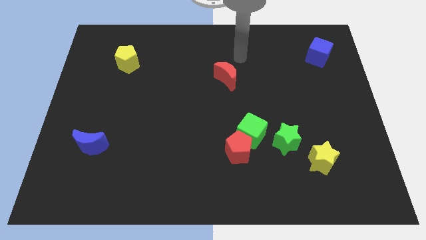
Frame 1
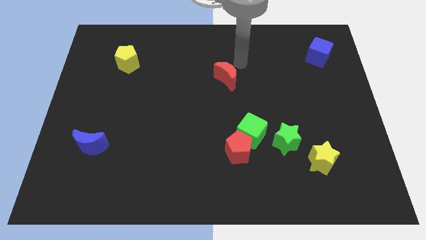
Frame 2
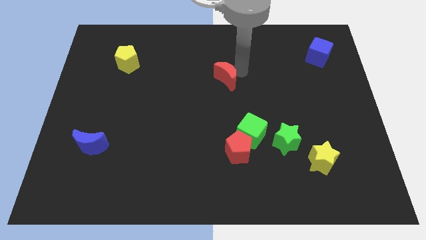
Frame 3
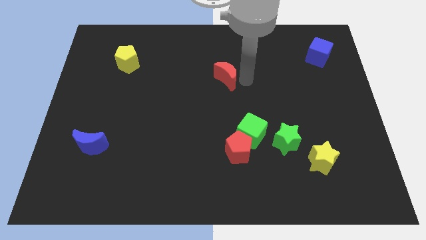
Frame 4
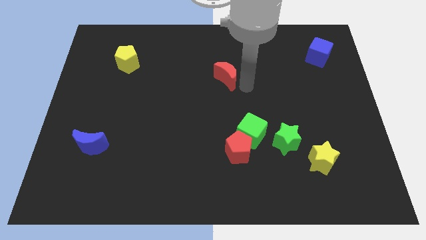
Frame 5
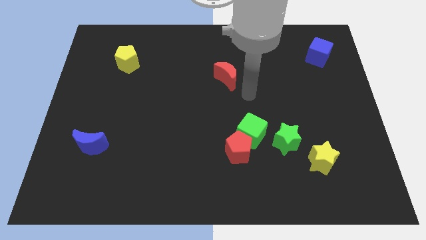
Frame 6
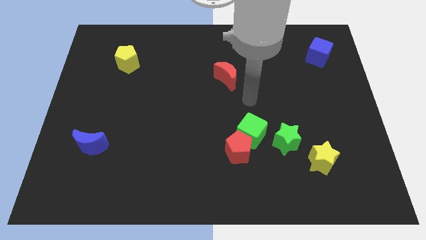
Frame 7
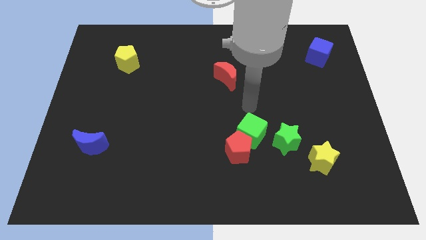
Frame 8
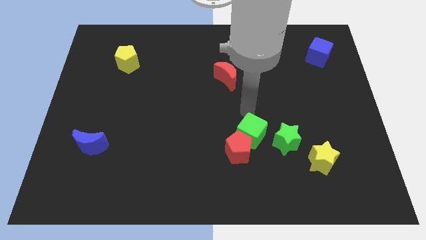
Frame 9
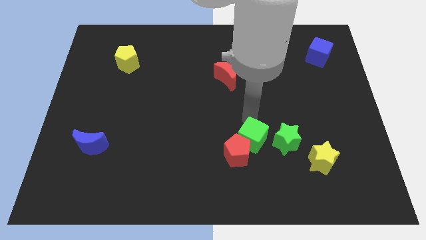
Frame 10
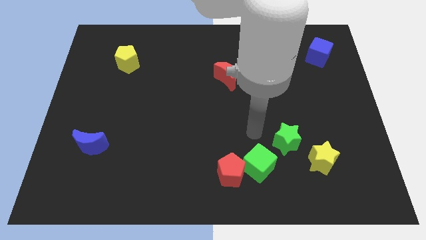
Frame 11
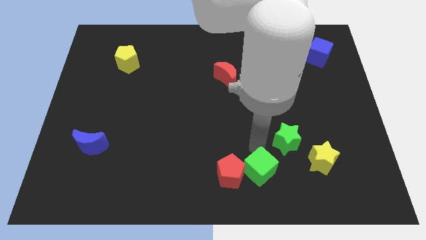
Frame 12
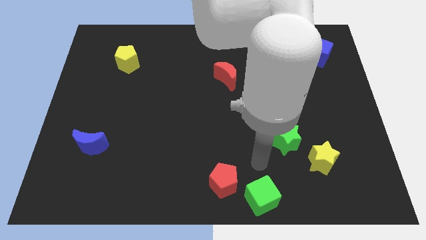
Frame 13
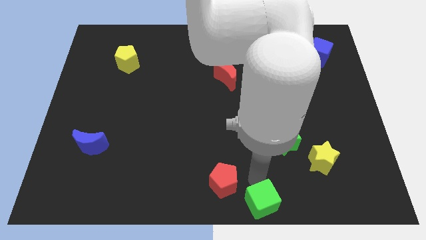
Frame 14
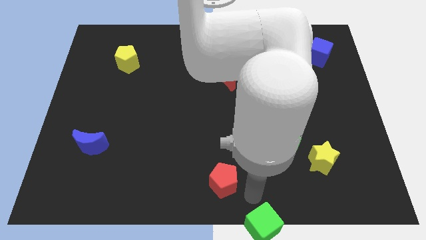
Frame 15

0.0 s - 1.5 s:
separate the red pentagon from the green cube

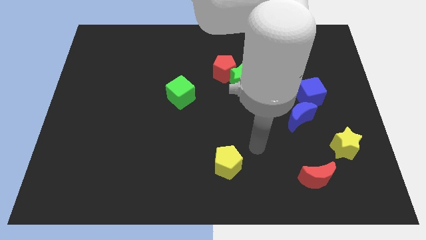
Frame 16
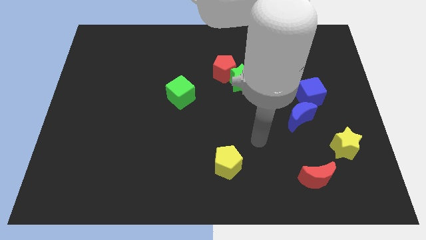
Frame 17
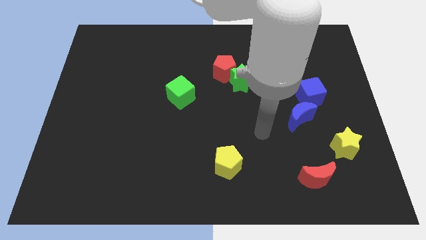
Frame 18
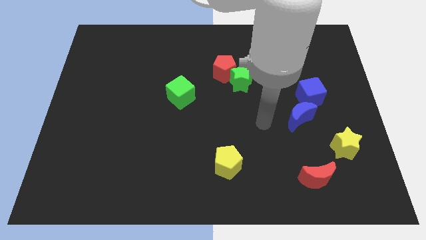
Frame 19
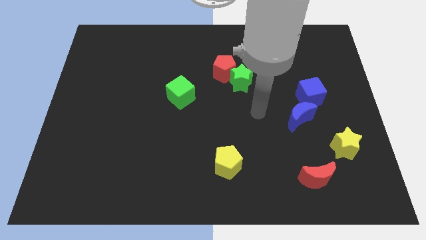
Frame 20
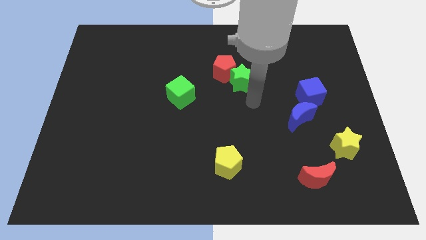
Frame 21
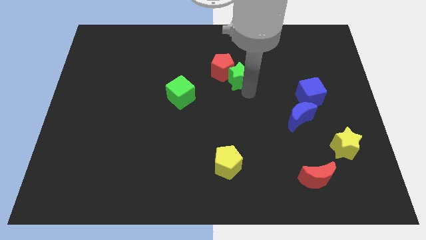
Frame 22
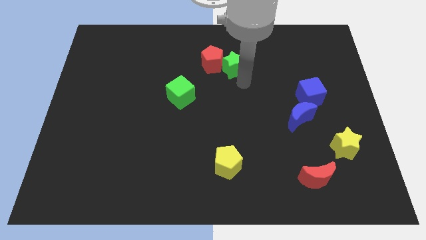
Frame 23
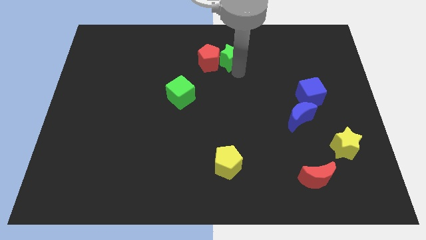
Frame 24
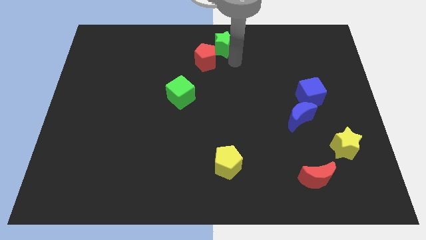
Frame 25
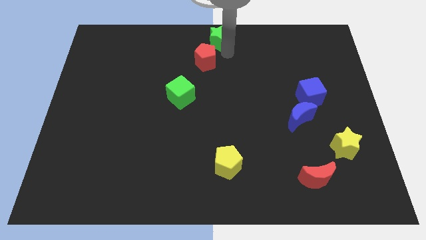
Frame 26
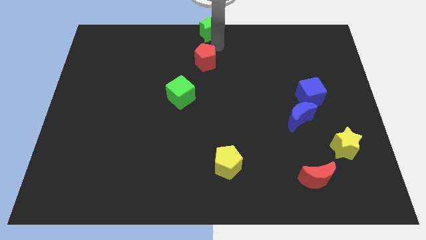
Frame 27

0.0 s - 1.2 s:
move the red pentagon away from the green star

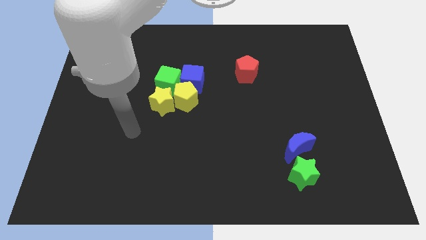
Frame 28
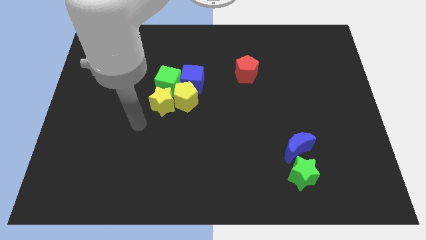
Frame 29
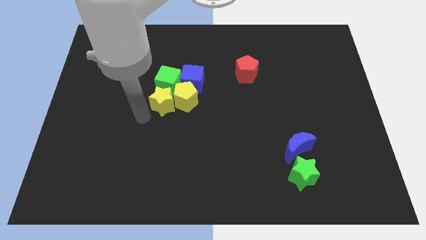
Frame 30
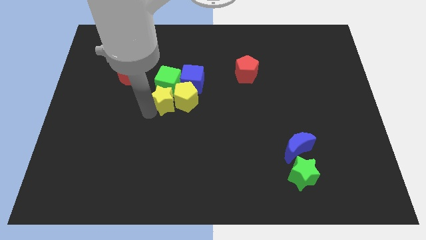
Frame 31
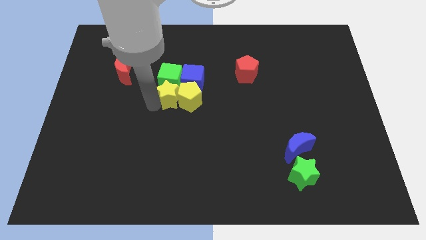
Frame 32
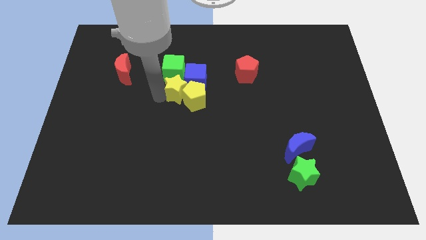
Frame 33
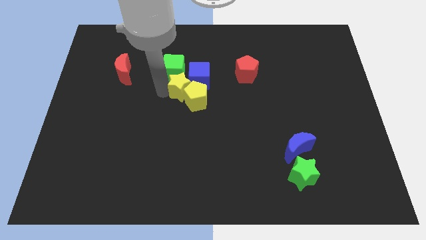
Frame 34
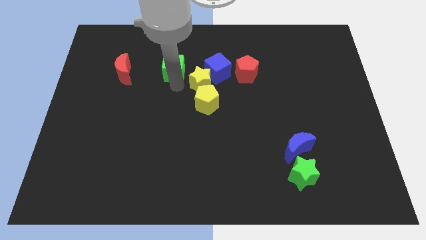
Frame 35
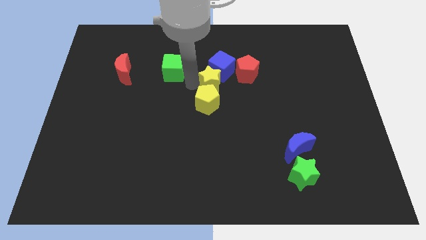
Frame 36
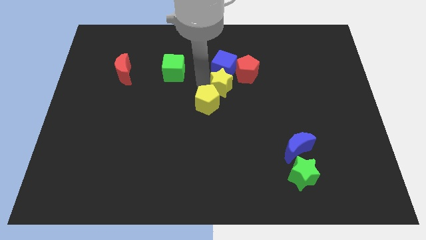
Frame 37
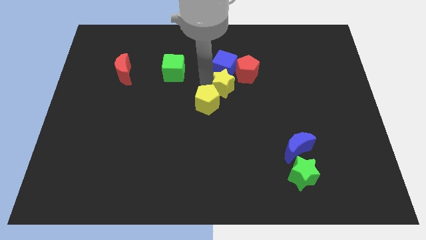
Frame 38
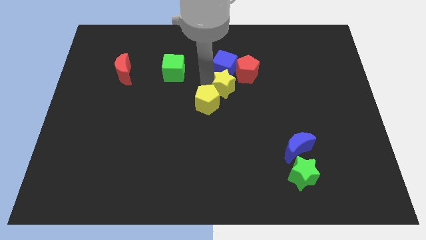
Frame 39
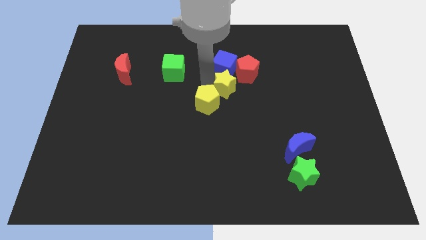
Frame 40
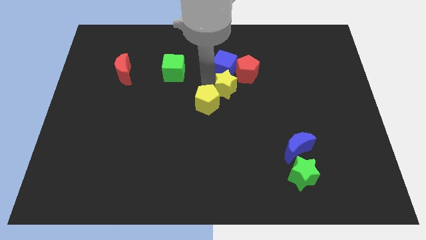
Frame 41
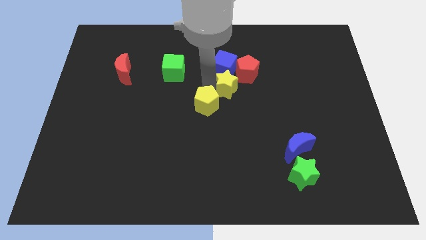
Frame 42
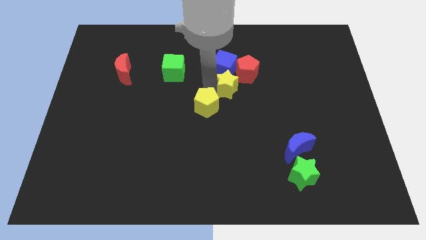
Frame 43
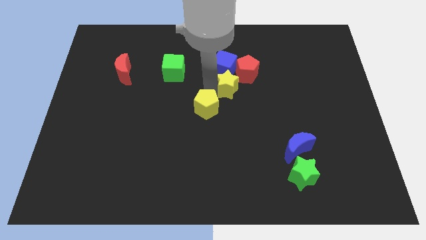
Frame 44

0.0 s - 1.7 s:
move the yellow pentagon away from the blue cube, yellow star, and green cube

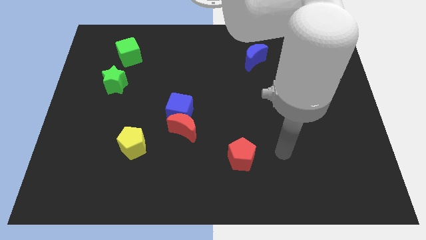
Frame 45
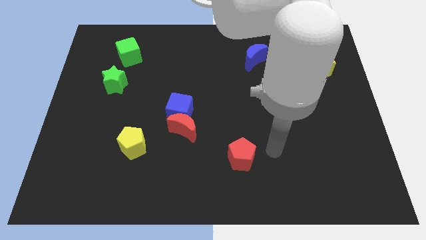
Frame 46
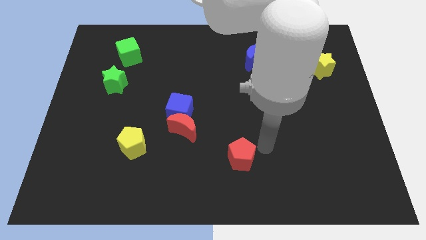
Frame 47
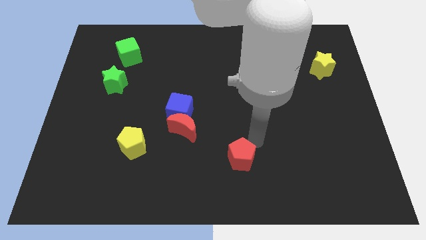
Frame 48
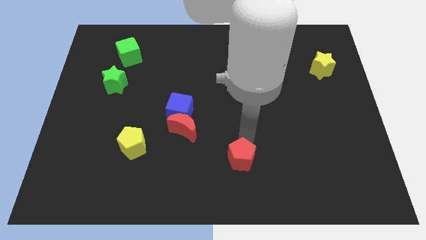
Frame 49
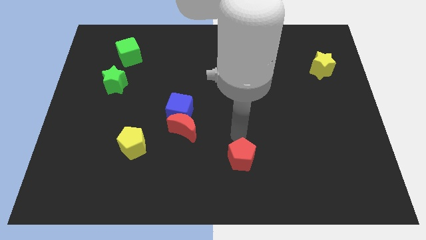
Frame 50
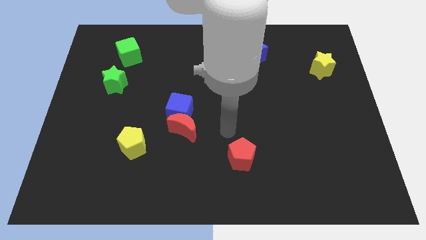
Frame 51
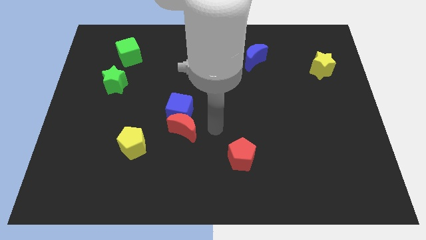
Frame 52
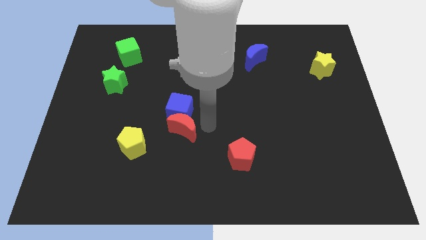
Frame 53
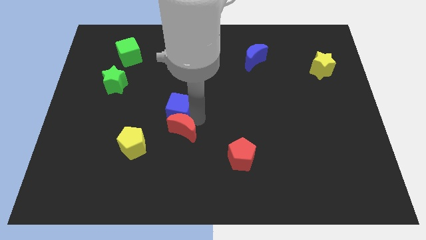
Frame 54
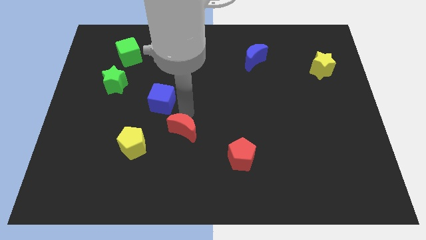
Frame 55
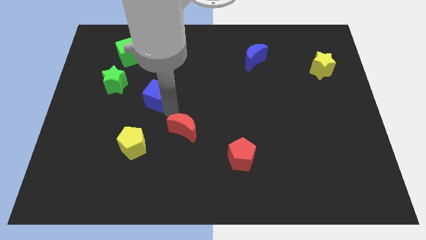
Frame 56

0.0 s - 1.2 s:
separate the red moon from the blue cube

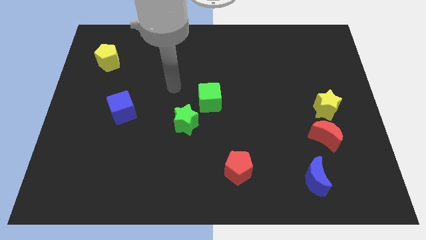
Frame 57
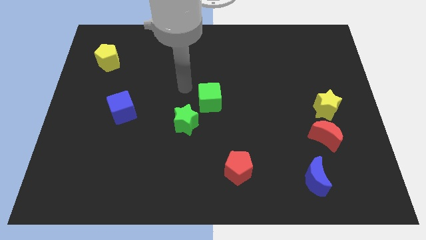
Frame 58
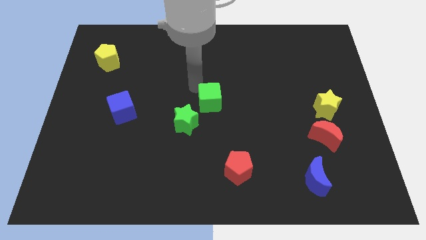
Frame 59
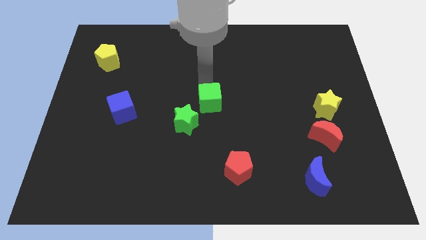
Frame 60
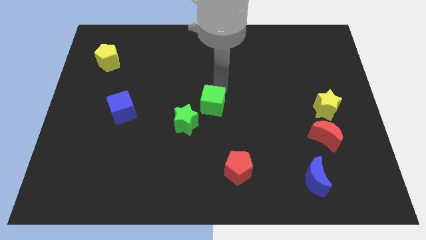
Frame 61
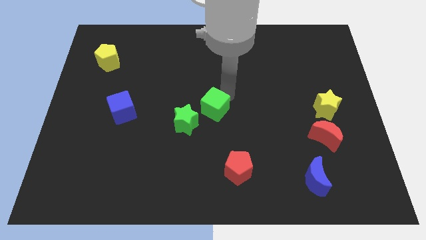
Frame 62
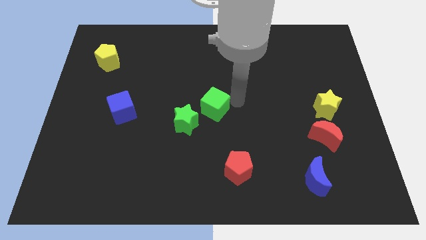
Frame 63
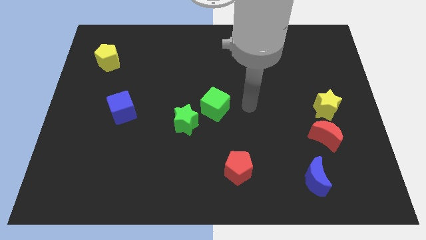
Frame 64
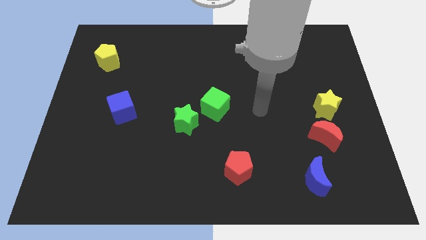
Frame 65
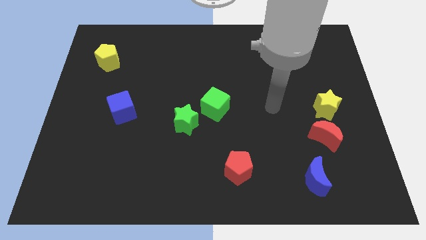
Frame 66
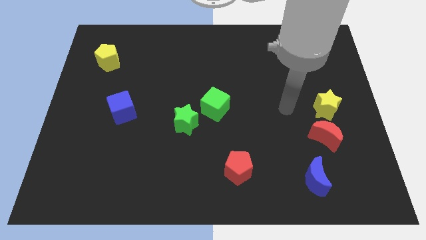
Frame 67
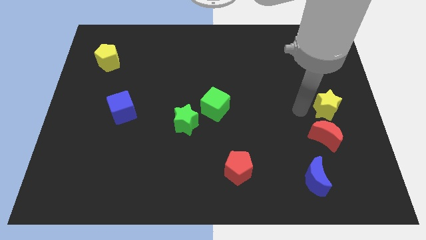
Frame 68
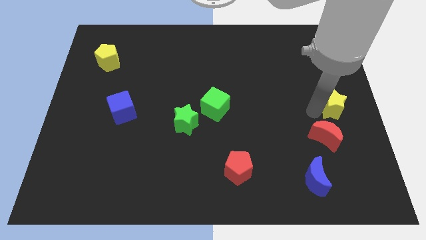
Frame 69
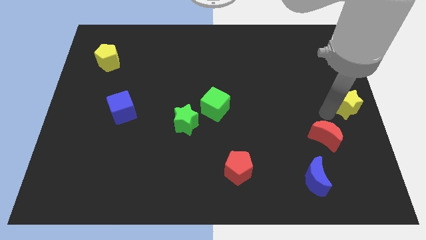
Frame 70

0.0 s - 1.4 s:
move the red moon away from the yellow star

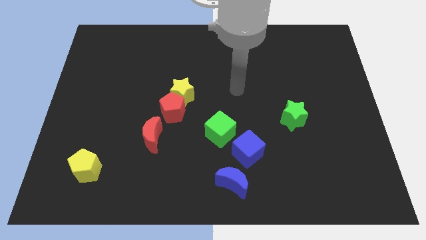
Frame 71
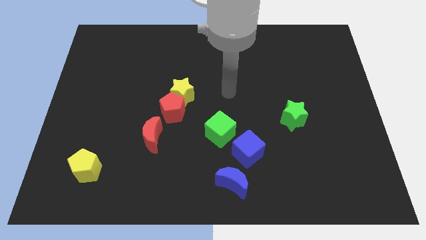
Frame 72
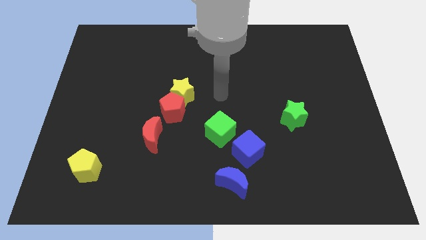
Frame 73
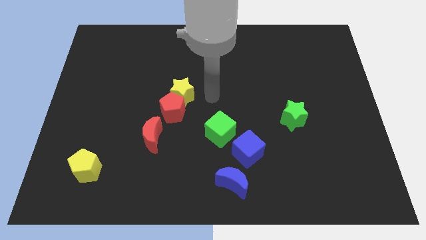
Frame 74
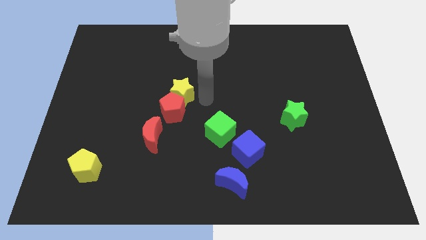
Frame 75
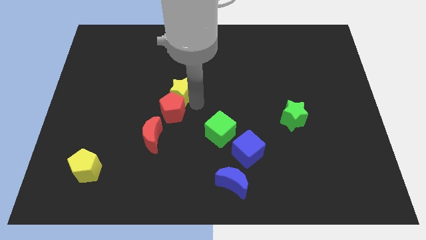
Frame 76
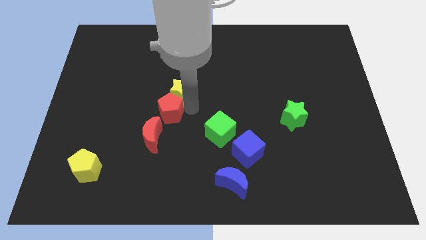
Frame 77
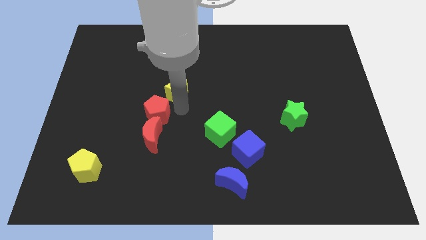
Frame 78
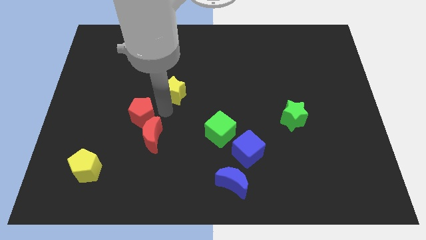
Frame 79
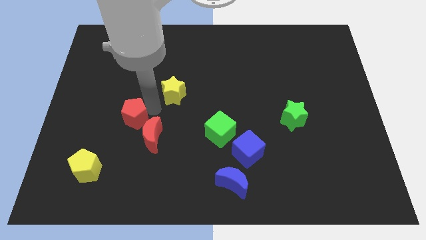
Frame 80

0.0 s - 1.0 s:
separate the yellow star from the red pentagon

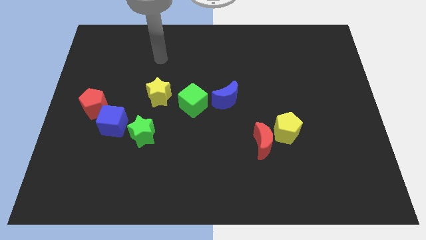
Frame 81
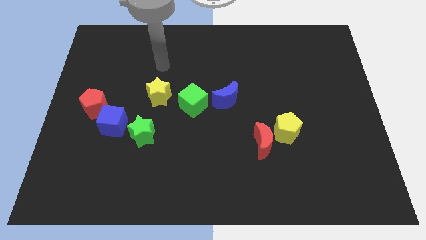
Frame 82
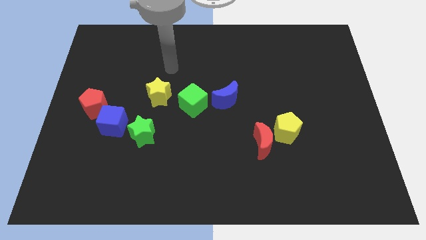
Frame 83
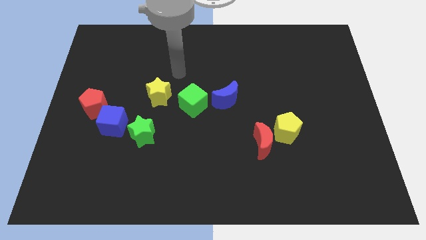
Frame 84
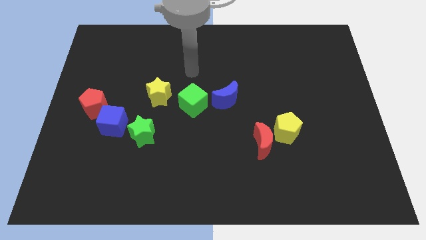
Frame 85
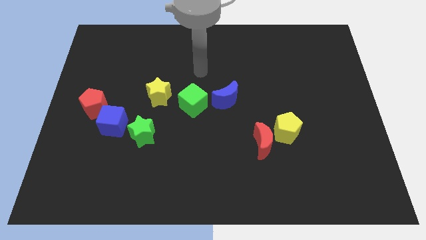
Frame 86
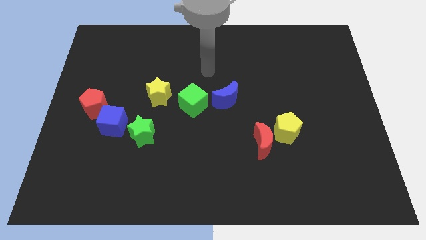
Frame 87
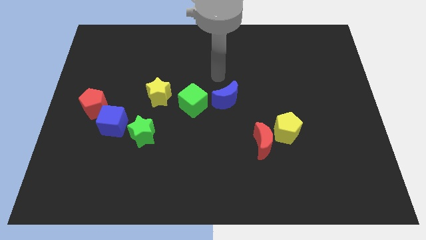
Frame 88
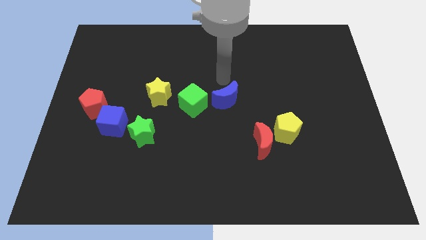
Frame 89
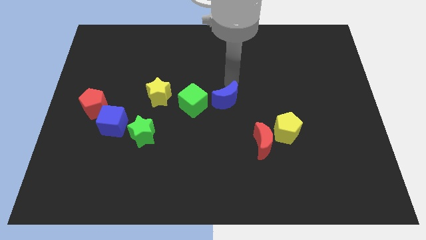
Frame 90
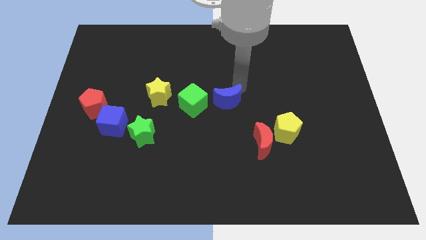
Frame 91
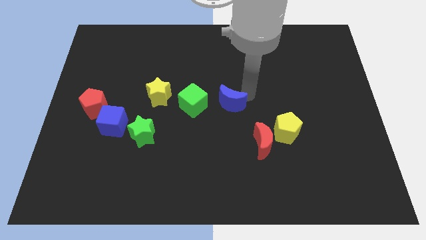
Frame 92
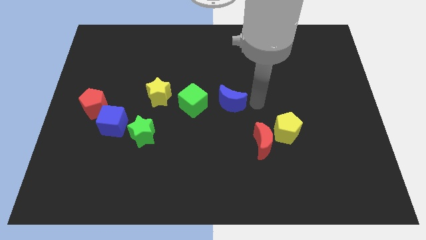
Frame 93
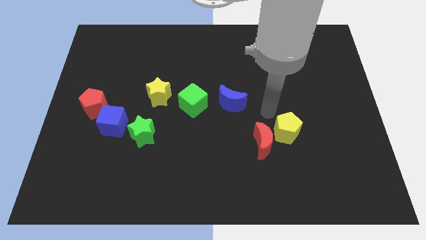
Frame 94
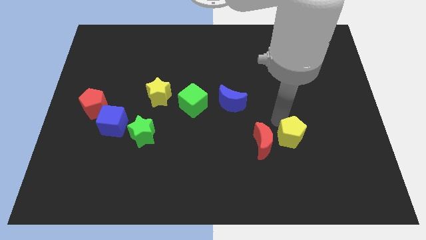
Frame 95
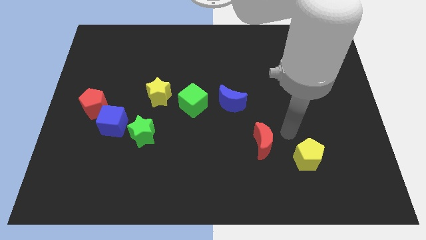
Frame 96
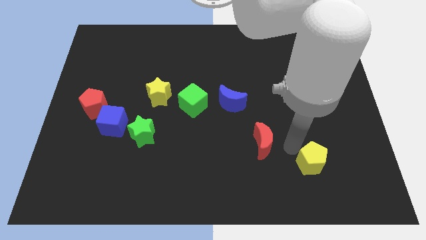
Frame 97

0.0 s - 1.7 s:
pull the red moon apart from the yellow pentagon
